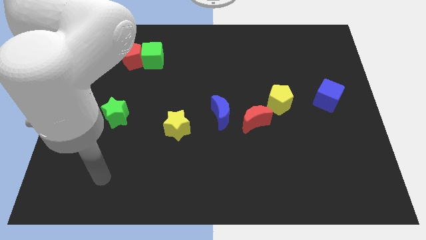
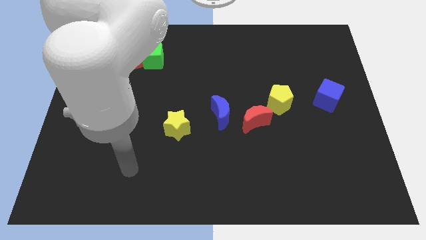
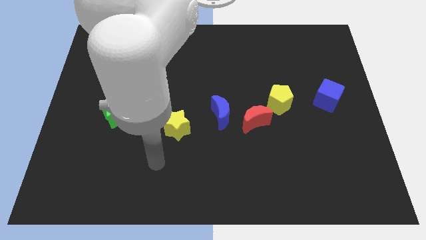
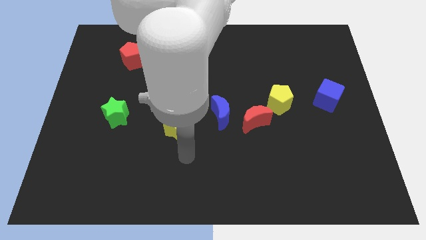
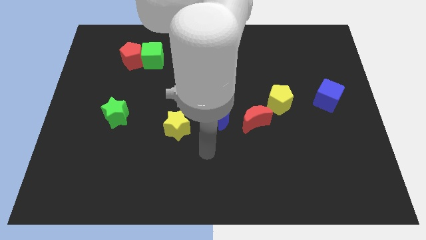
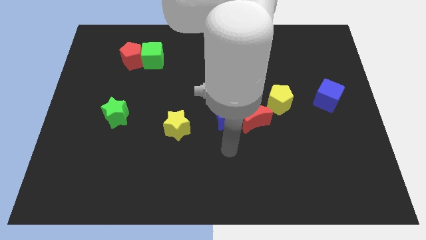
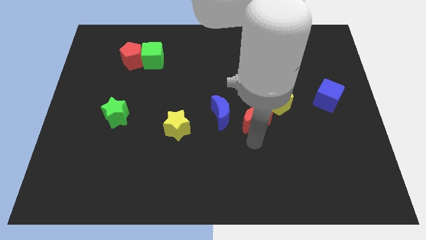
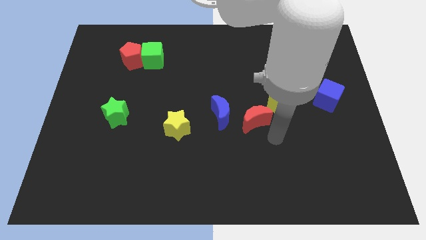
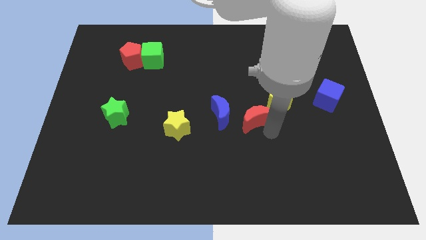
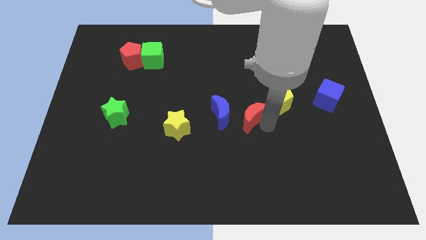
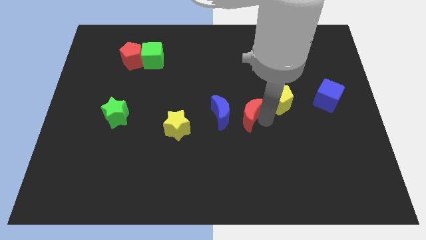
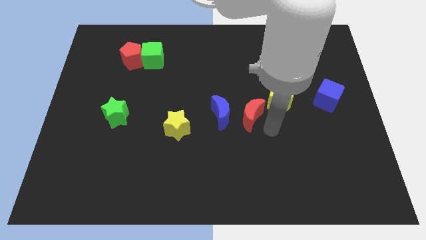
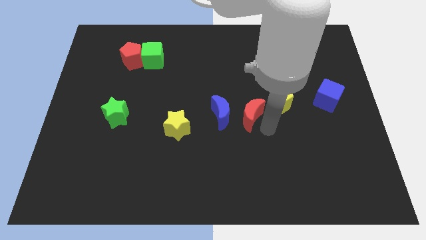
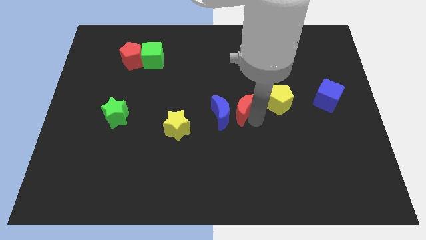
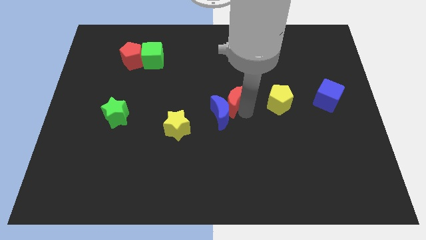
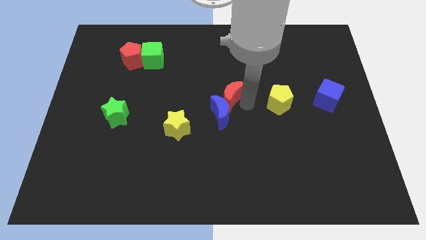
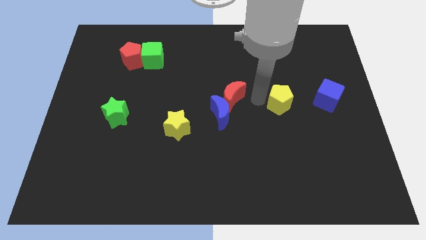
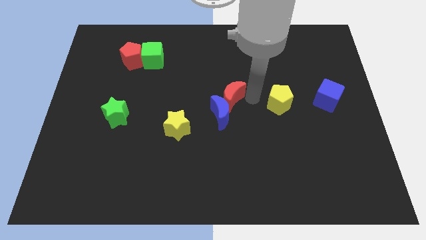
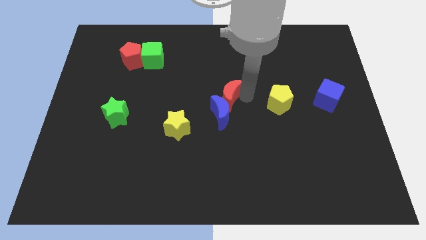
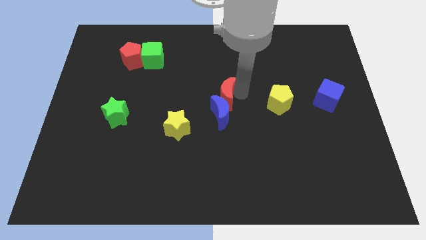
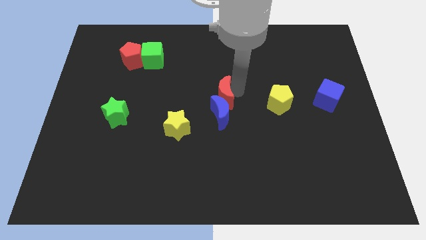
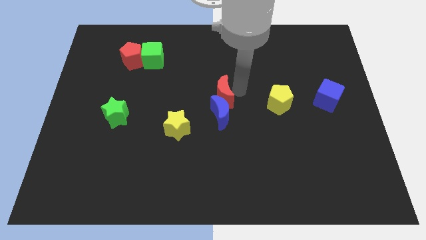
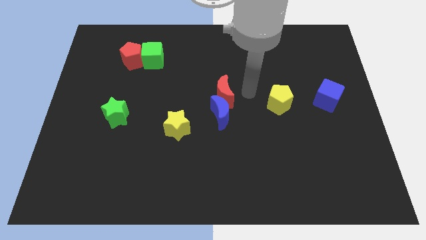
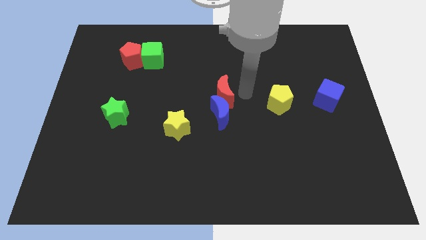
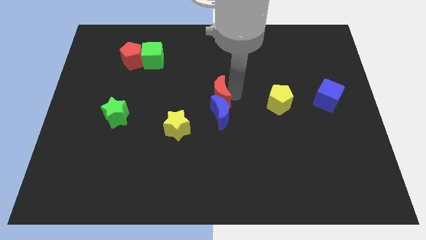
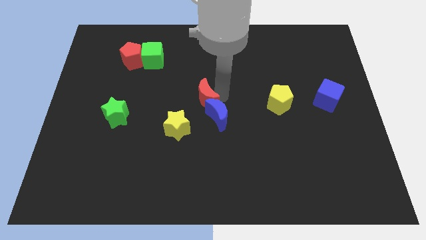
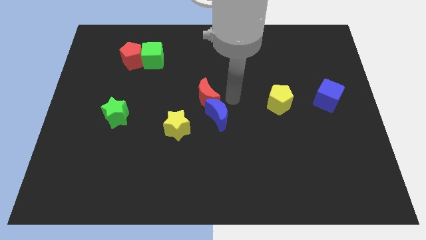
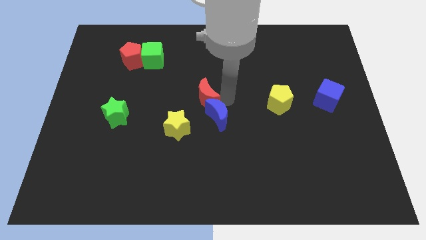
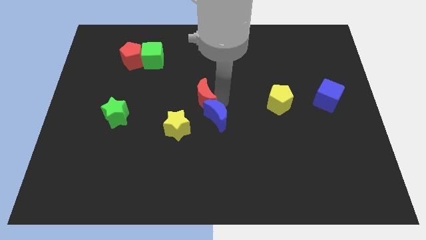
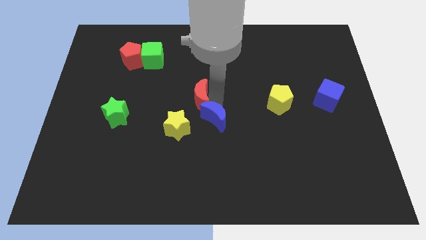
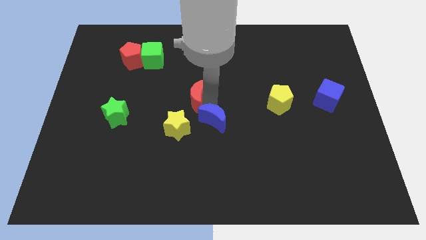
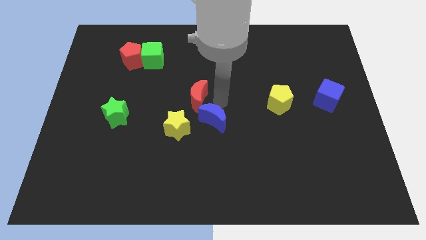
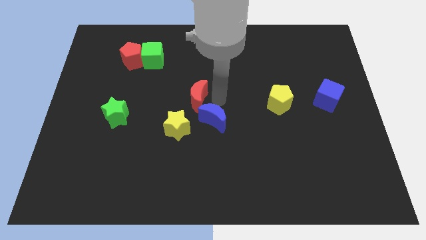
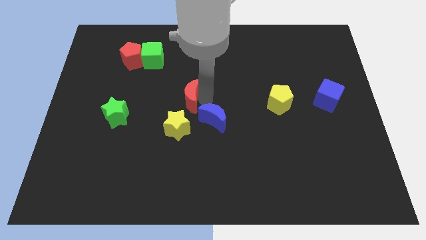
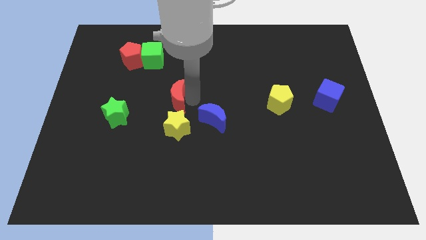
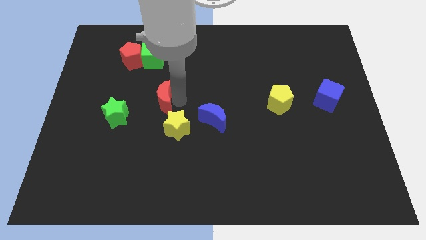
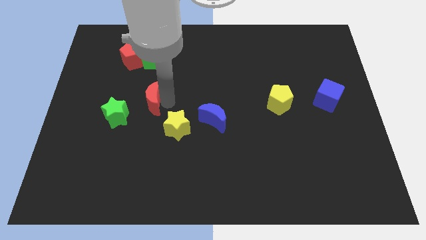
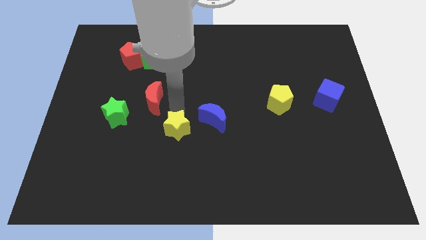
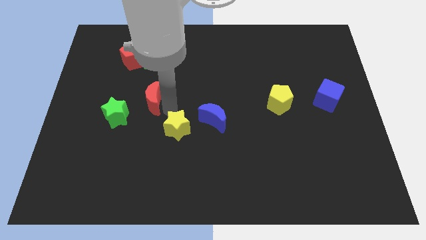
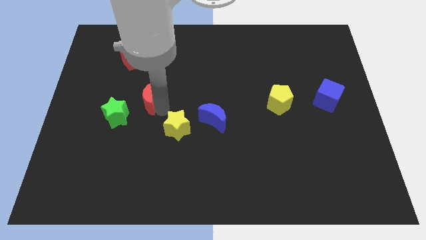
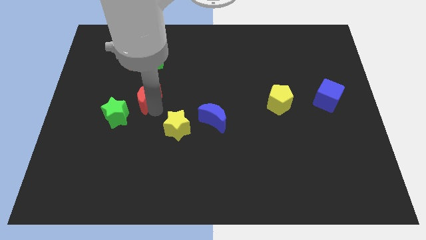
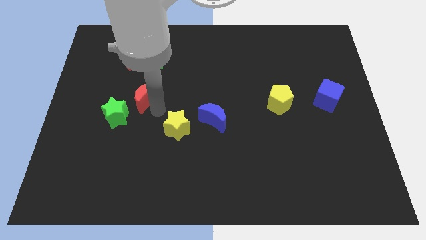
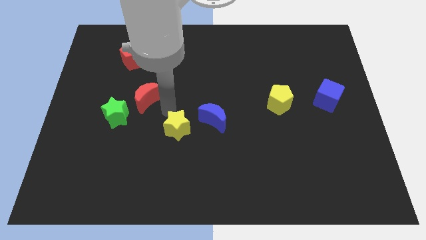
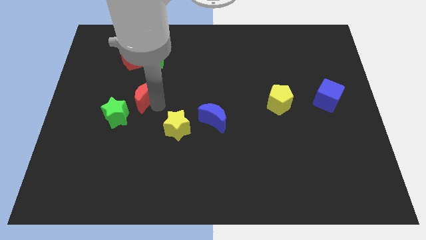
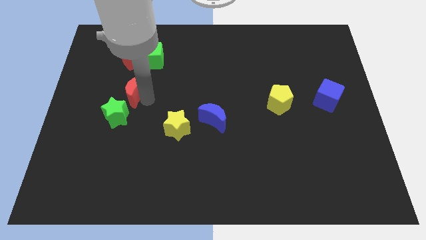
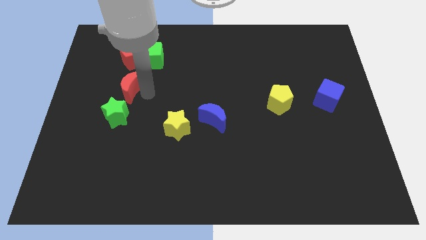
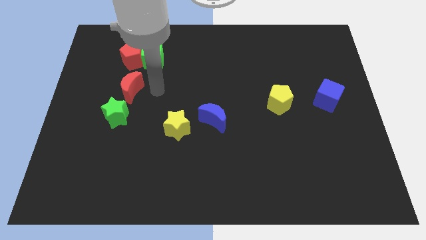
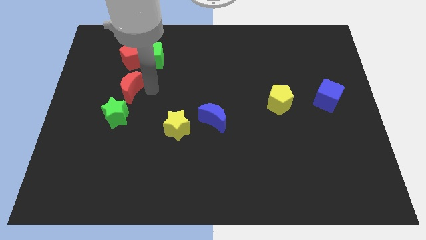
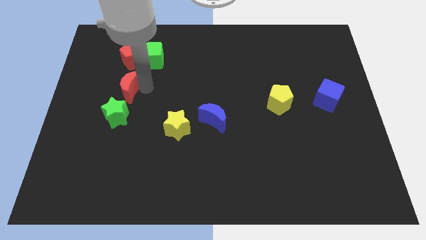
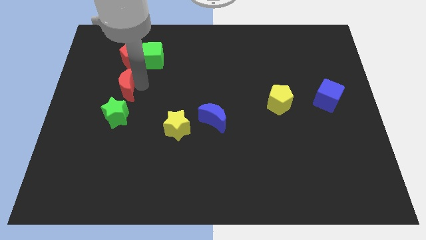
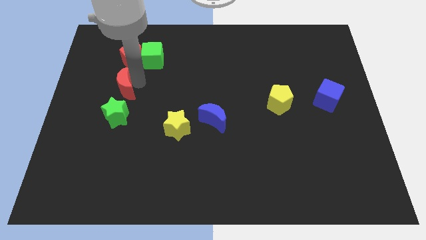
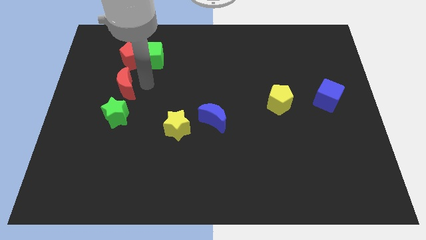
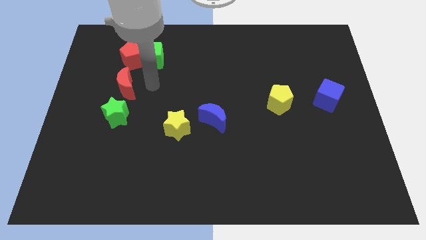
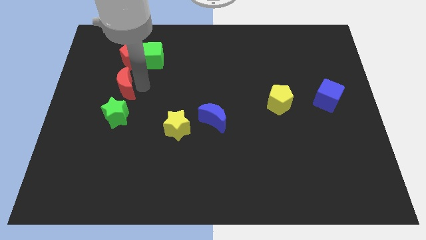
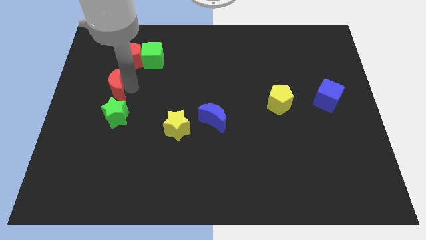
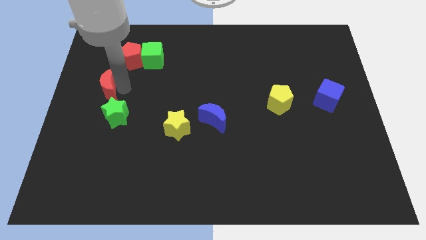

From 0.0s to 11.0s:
push the red moon to the left side of the board
